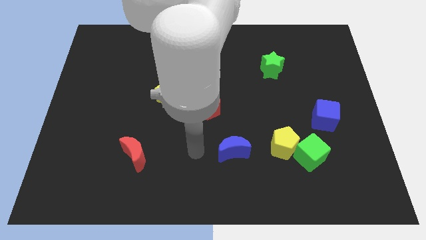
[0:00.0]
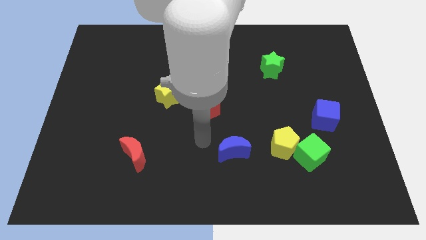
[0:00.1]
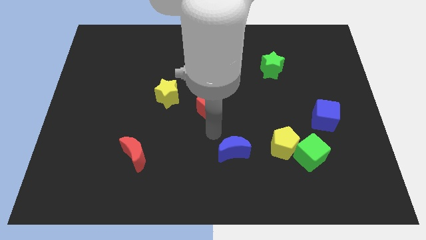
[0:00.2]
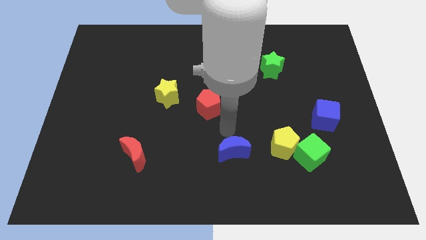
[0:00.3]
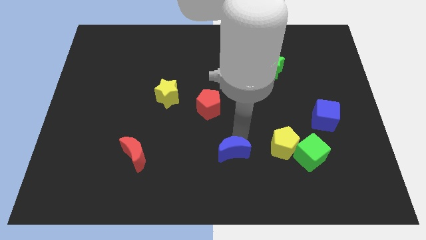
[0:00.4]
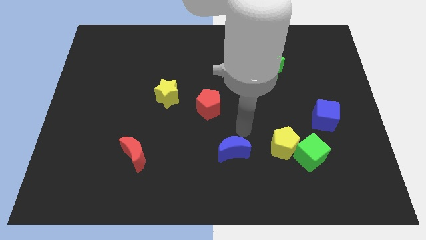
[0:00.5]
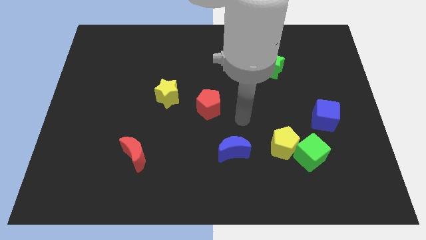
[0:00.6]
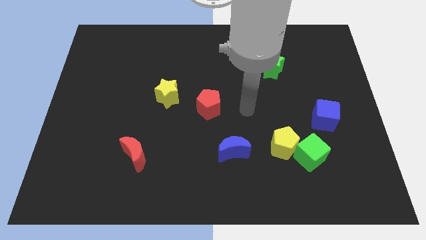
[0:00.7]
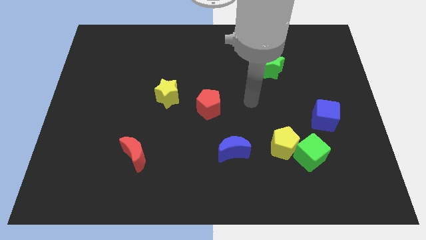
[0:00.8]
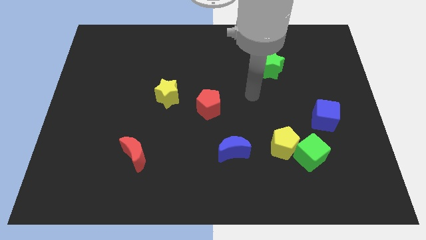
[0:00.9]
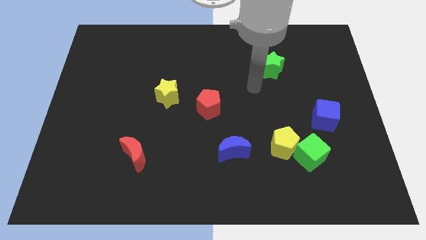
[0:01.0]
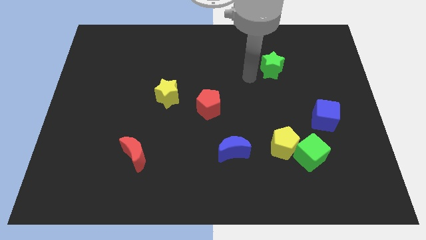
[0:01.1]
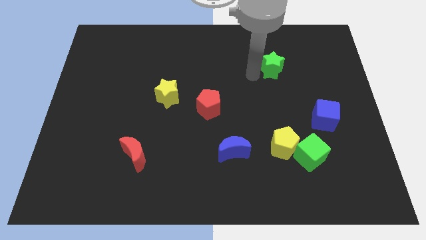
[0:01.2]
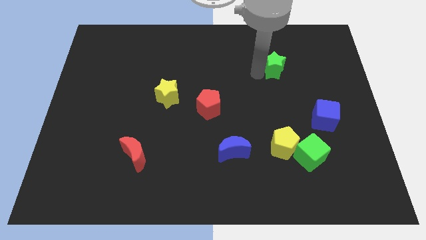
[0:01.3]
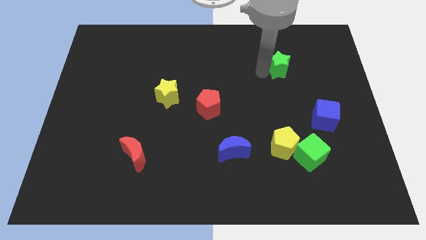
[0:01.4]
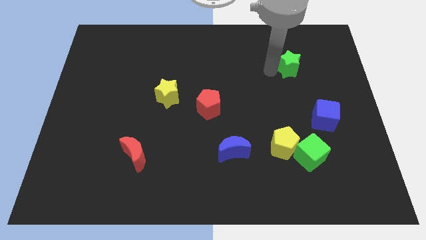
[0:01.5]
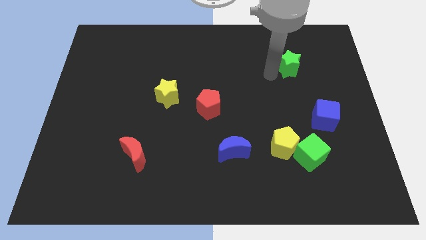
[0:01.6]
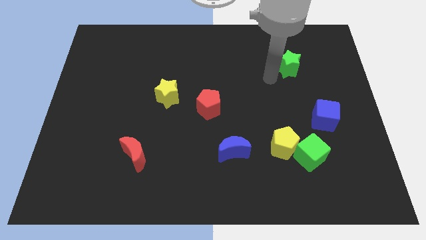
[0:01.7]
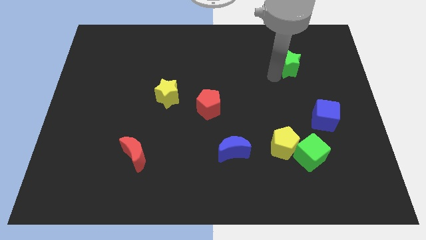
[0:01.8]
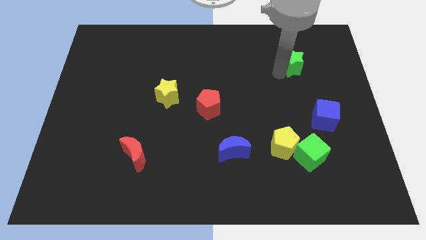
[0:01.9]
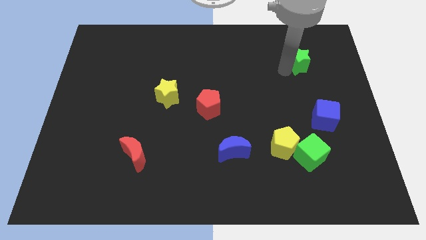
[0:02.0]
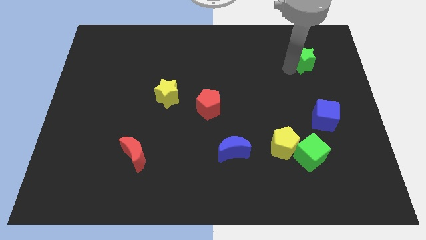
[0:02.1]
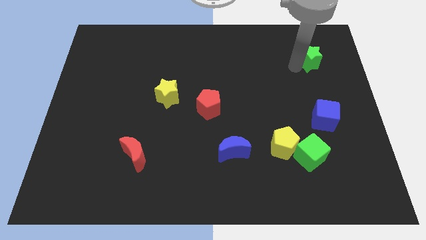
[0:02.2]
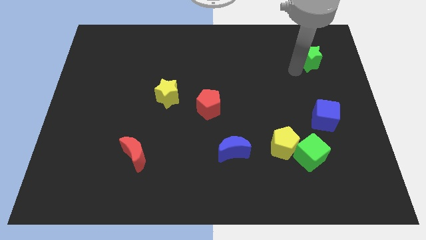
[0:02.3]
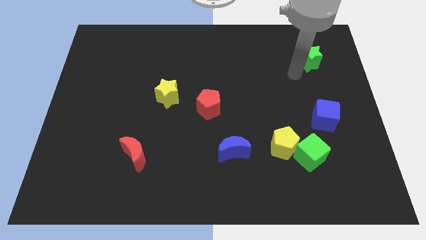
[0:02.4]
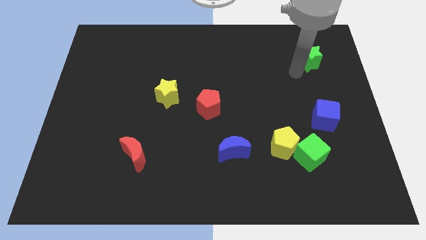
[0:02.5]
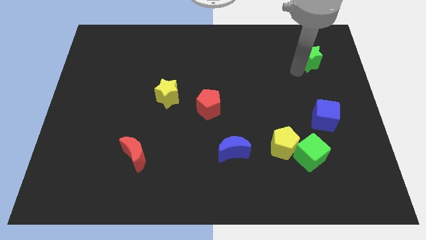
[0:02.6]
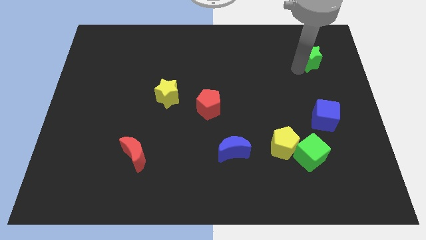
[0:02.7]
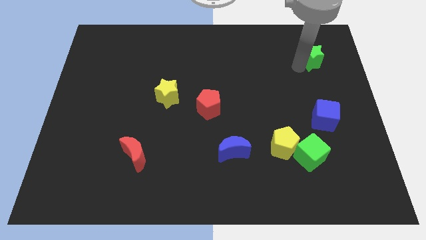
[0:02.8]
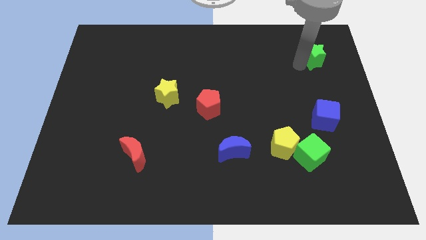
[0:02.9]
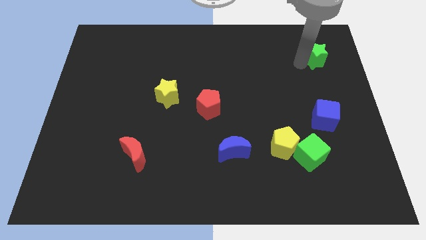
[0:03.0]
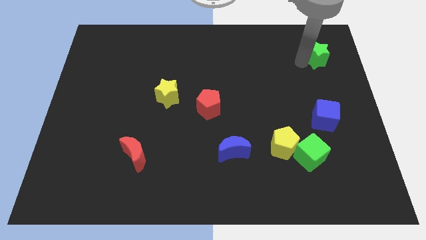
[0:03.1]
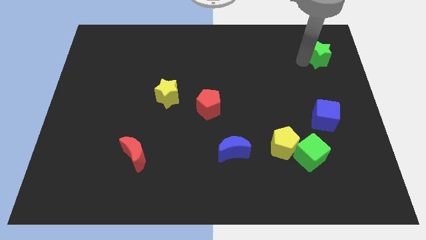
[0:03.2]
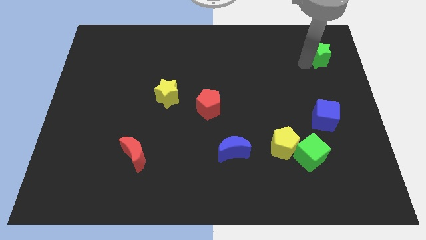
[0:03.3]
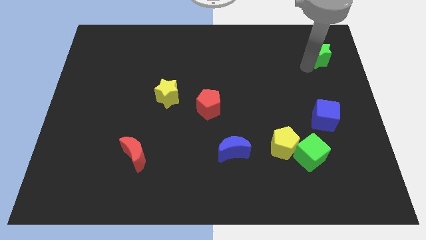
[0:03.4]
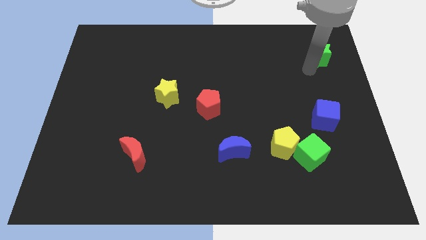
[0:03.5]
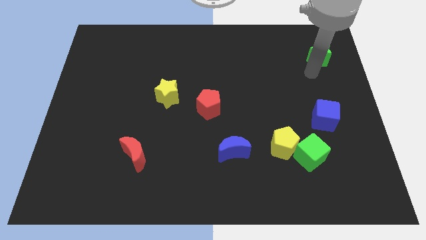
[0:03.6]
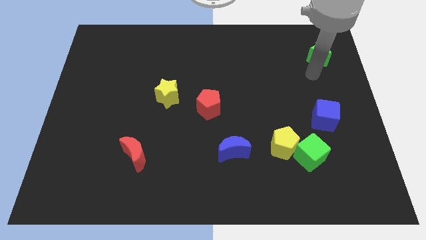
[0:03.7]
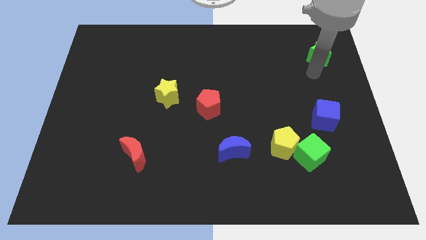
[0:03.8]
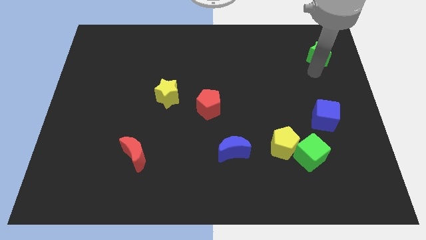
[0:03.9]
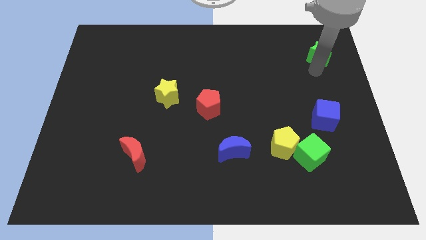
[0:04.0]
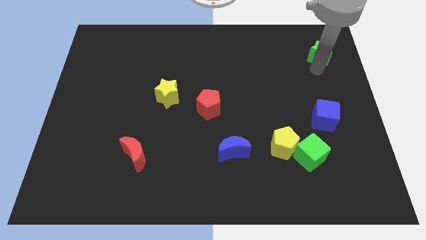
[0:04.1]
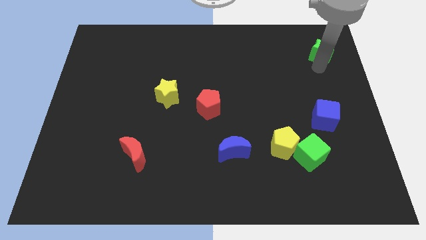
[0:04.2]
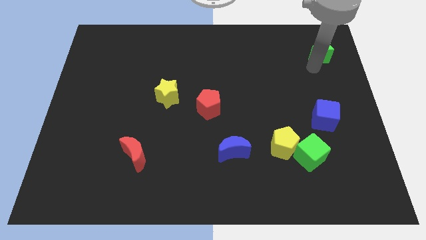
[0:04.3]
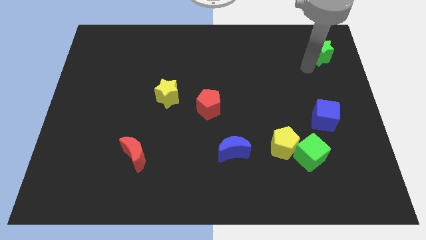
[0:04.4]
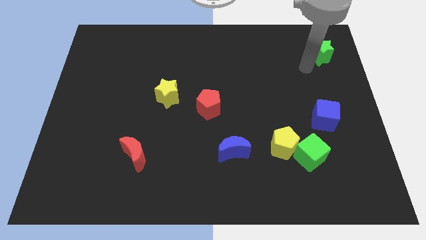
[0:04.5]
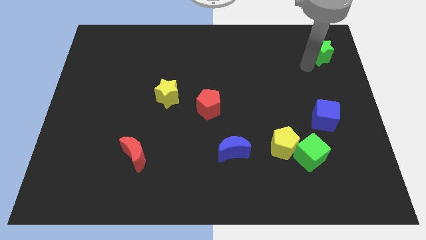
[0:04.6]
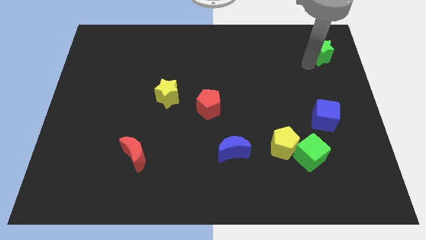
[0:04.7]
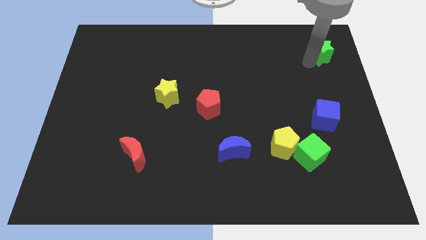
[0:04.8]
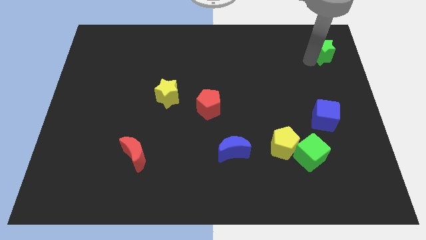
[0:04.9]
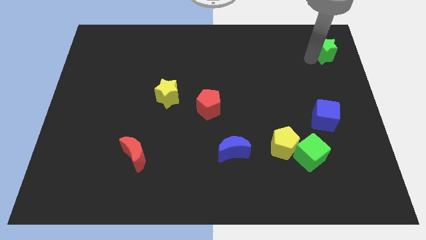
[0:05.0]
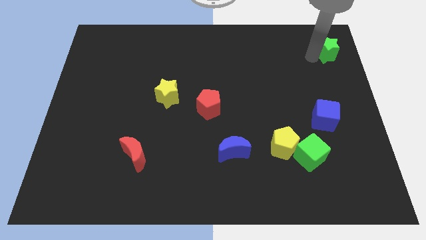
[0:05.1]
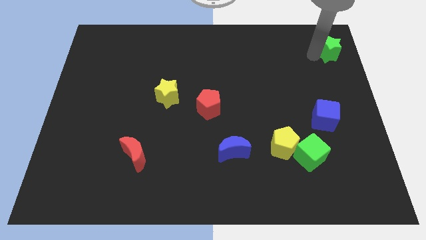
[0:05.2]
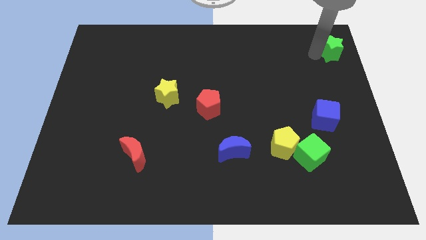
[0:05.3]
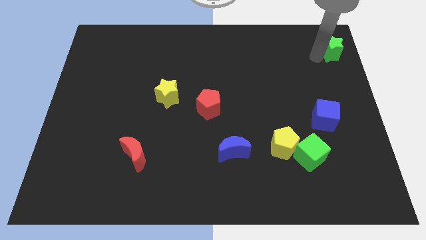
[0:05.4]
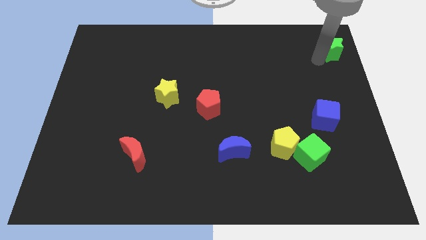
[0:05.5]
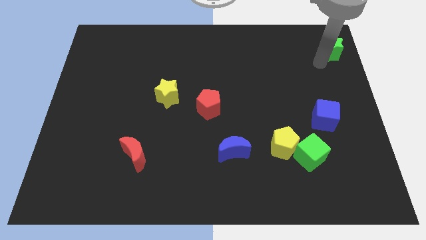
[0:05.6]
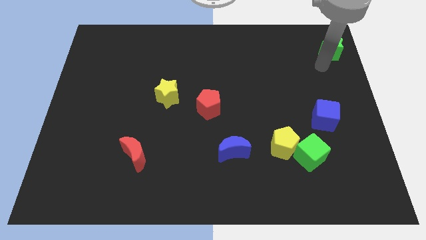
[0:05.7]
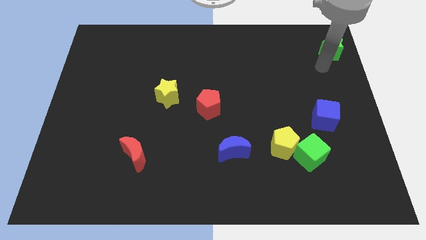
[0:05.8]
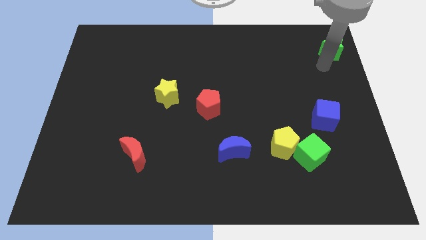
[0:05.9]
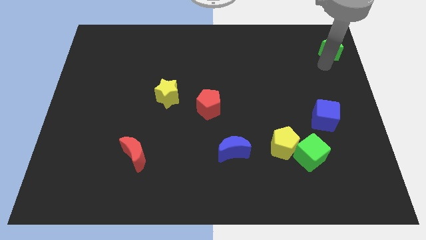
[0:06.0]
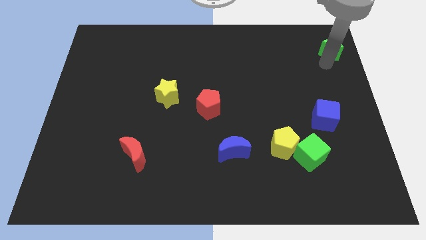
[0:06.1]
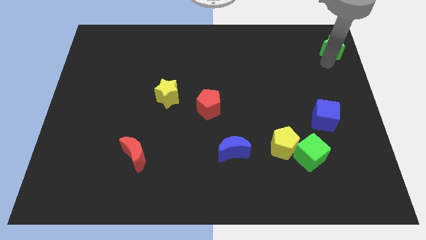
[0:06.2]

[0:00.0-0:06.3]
push the green star to the upper right corner

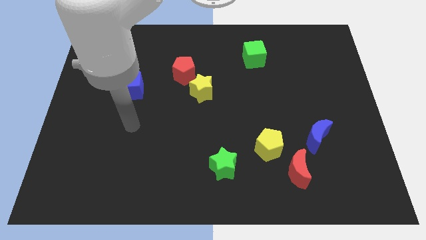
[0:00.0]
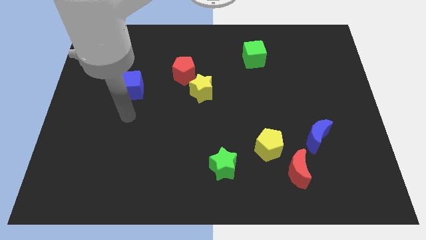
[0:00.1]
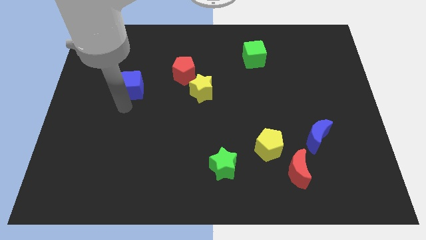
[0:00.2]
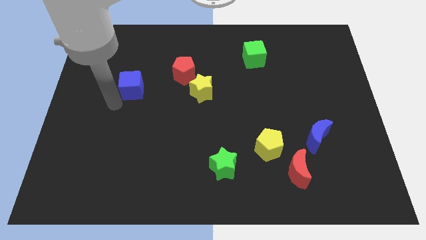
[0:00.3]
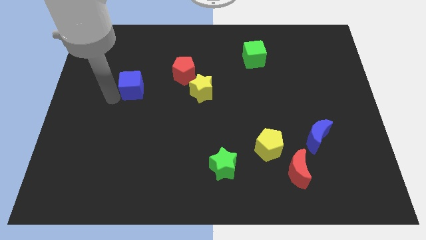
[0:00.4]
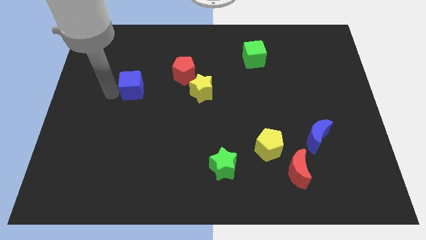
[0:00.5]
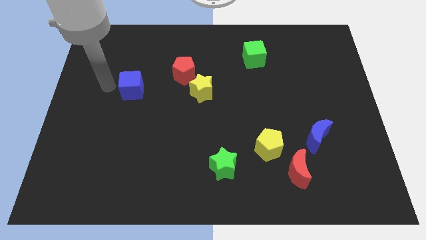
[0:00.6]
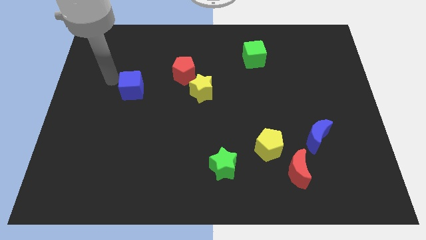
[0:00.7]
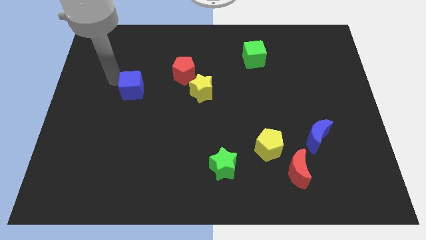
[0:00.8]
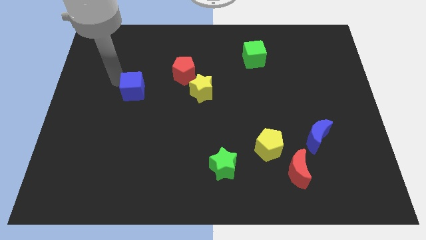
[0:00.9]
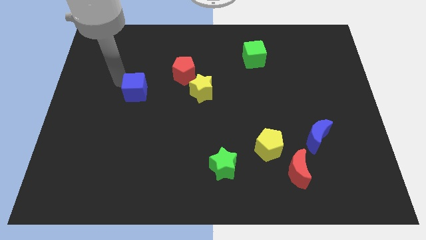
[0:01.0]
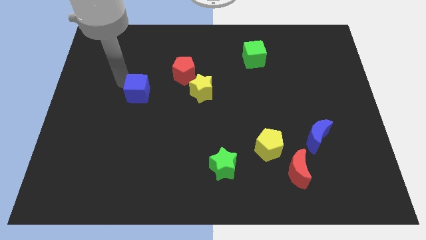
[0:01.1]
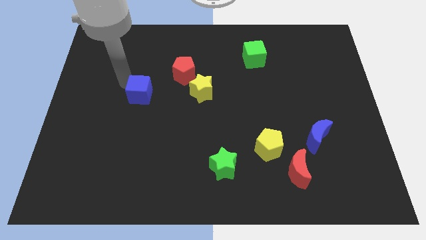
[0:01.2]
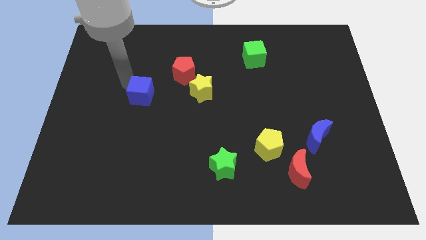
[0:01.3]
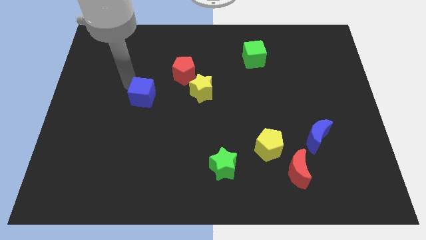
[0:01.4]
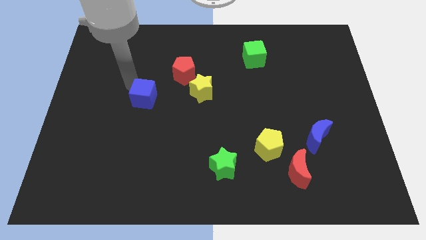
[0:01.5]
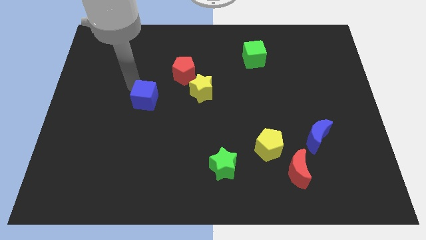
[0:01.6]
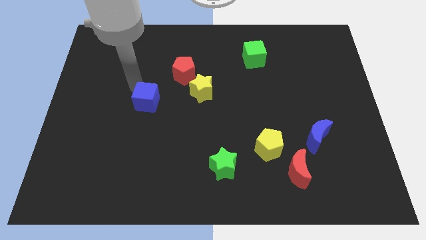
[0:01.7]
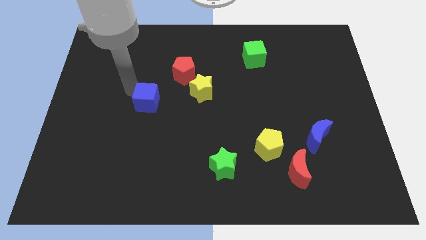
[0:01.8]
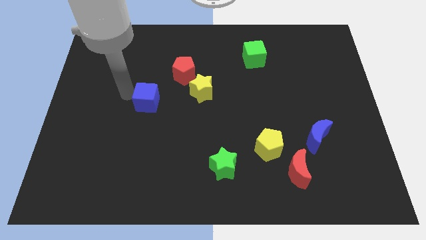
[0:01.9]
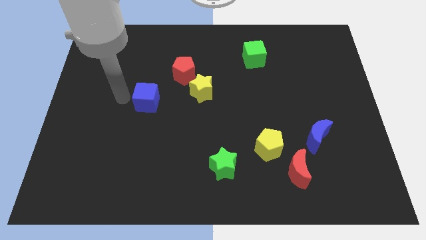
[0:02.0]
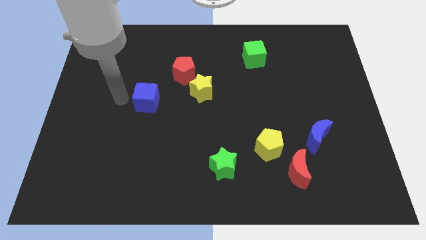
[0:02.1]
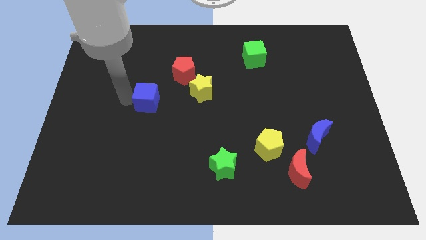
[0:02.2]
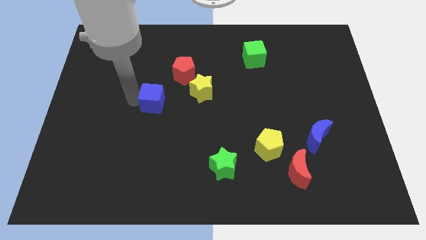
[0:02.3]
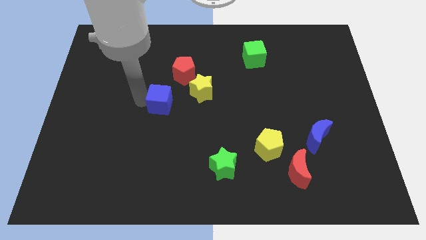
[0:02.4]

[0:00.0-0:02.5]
put the blue cube to the middle
